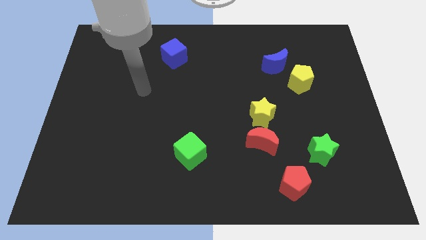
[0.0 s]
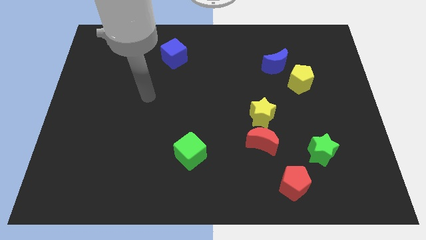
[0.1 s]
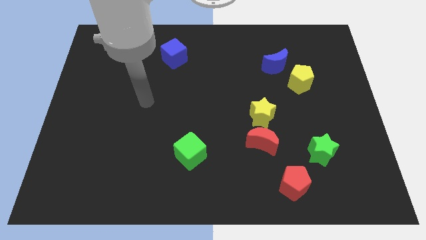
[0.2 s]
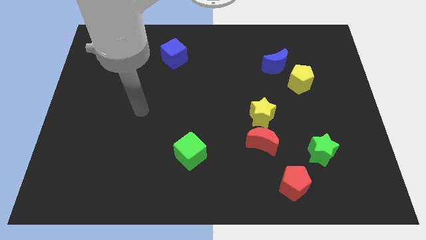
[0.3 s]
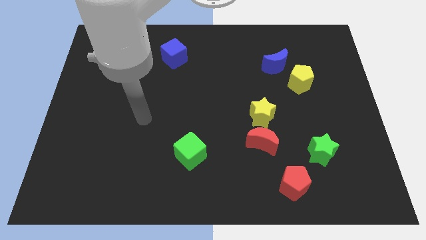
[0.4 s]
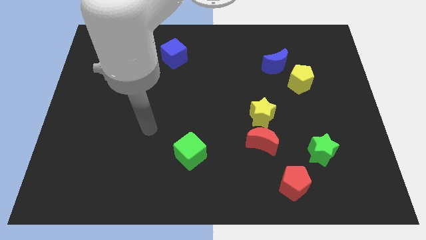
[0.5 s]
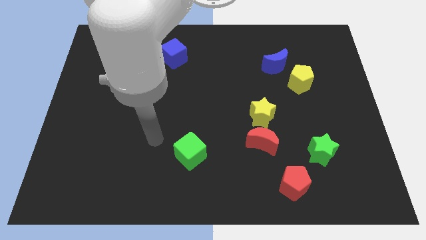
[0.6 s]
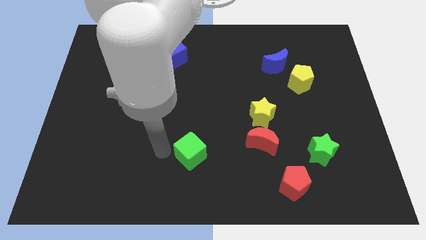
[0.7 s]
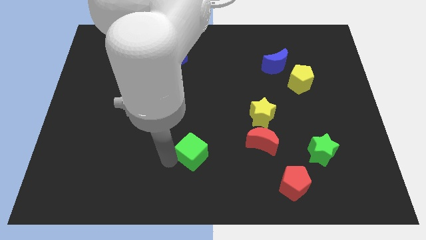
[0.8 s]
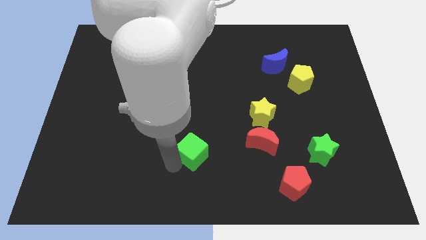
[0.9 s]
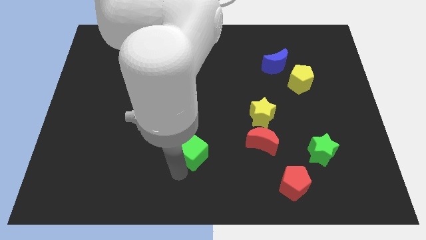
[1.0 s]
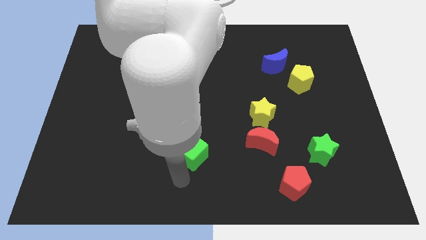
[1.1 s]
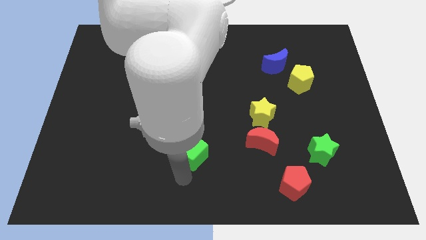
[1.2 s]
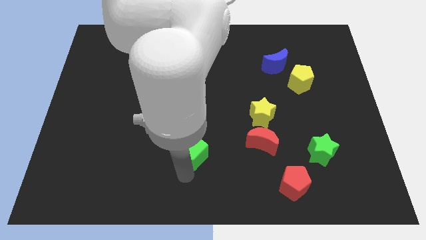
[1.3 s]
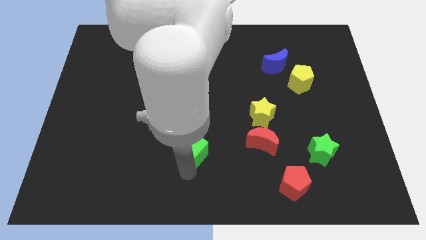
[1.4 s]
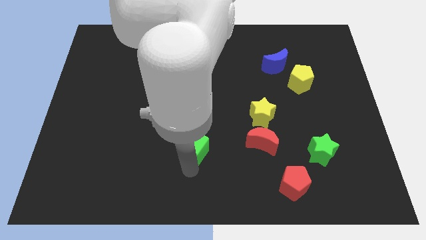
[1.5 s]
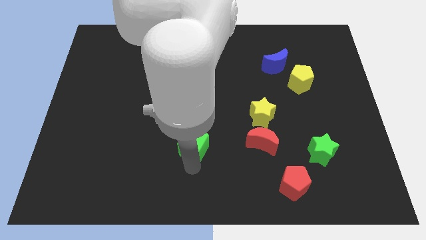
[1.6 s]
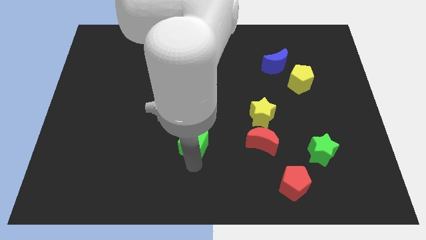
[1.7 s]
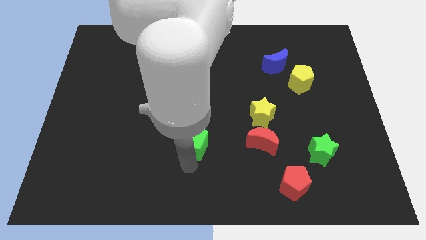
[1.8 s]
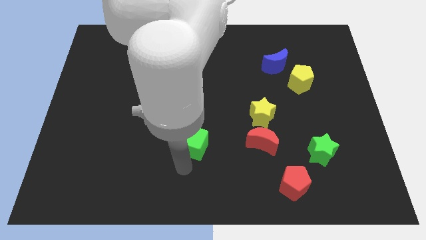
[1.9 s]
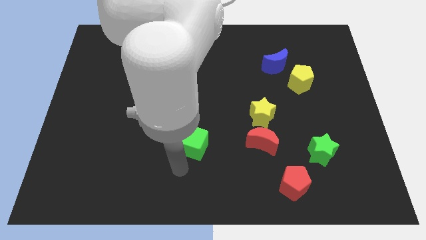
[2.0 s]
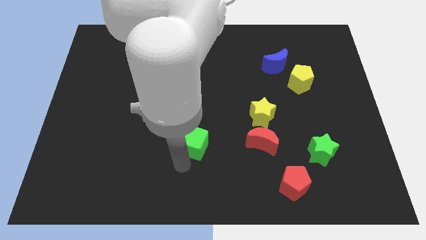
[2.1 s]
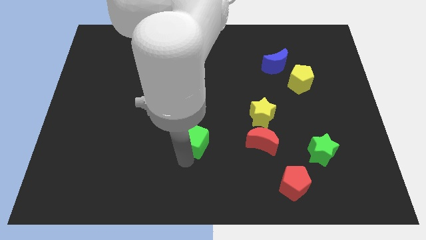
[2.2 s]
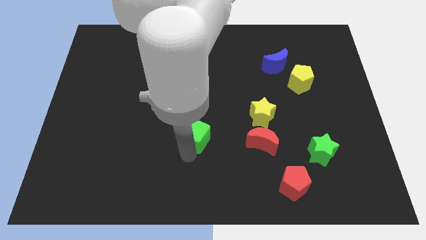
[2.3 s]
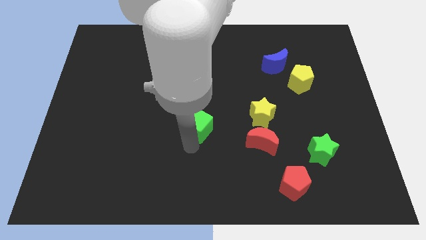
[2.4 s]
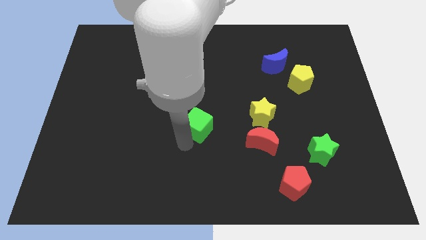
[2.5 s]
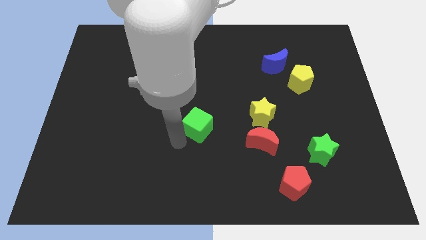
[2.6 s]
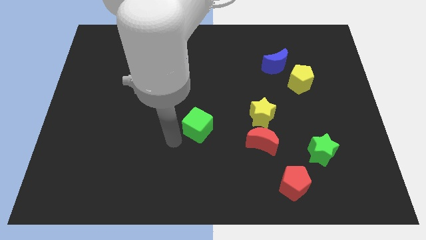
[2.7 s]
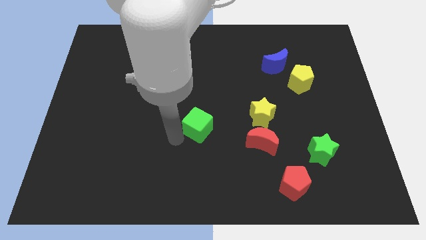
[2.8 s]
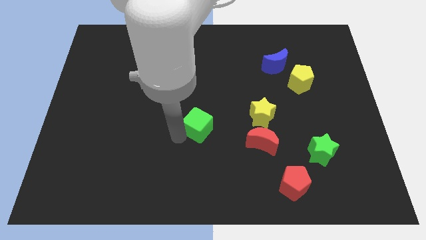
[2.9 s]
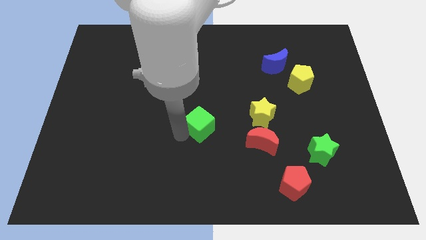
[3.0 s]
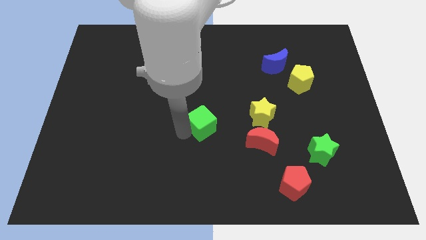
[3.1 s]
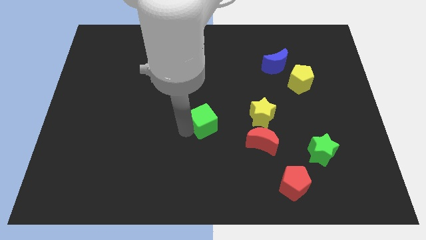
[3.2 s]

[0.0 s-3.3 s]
slide the green cube slightly upwards and right diagonally

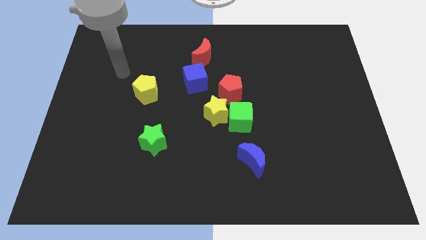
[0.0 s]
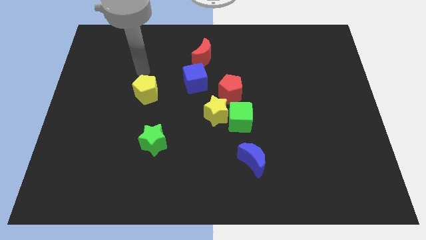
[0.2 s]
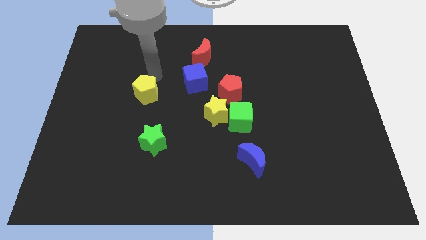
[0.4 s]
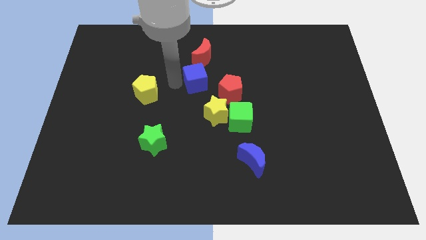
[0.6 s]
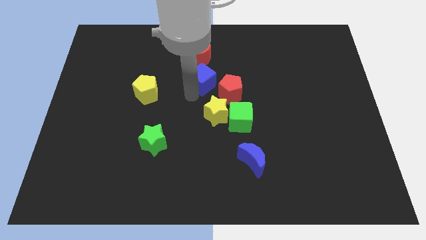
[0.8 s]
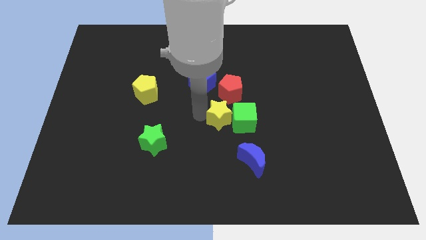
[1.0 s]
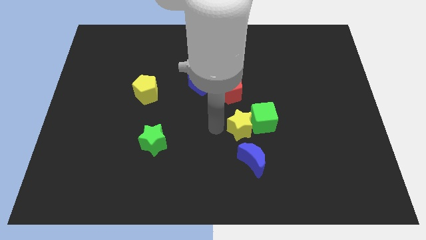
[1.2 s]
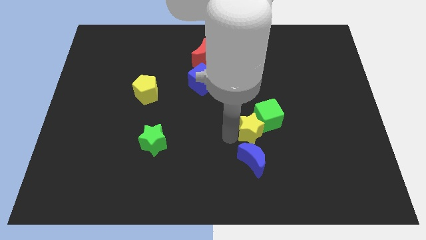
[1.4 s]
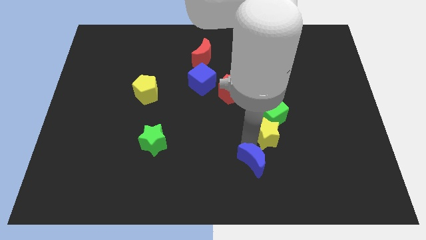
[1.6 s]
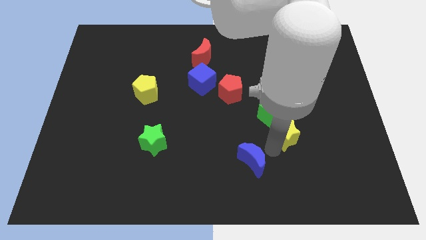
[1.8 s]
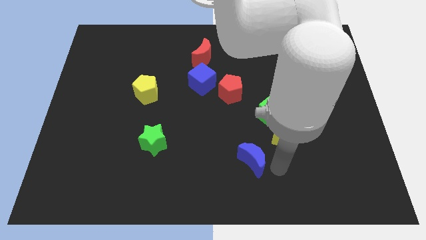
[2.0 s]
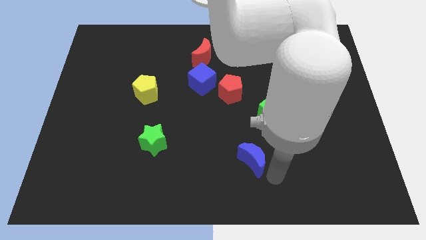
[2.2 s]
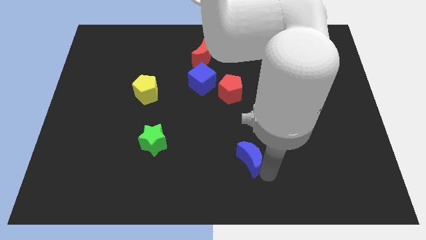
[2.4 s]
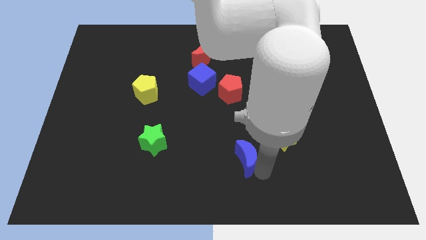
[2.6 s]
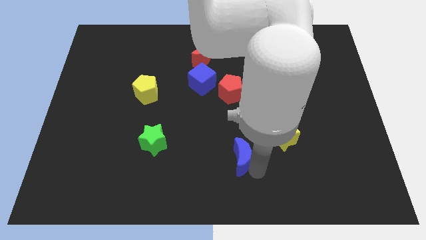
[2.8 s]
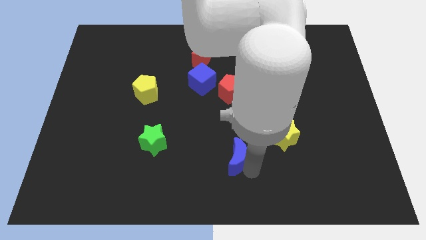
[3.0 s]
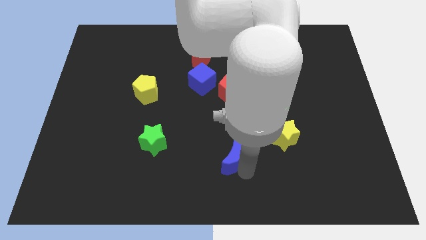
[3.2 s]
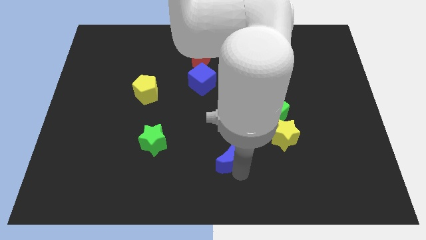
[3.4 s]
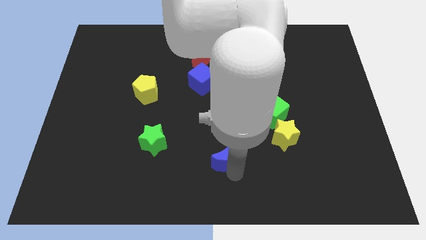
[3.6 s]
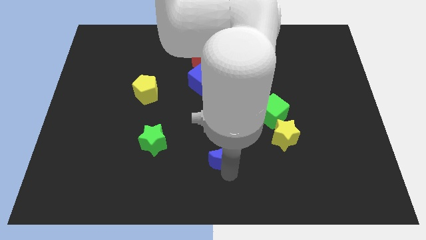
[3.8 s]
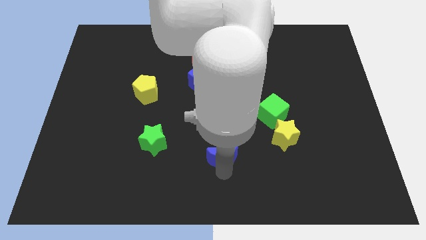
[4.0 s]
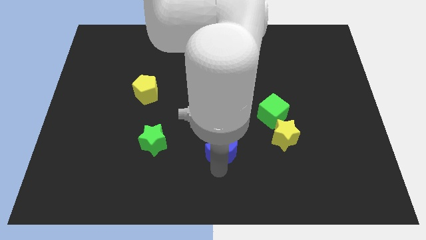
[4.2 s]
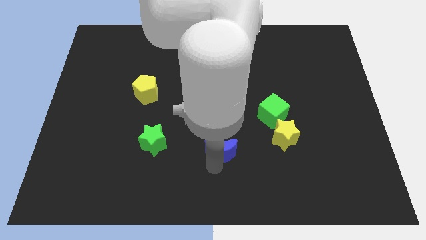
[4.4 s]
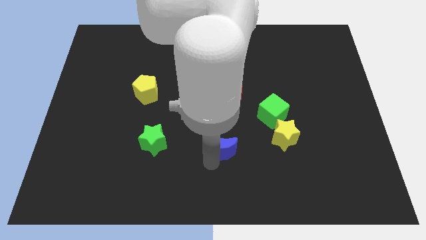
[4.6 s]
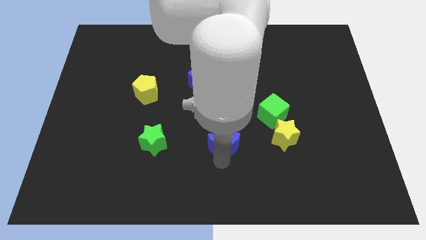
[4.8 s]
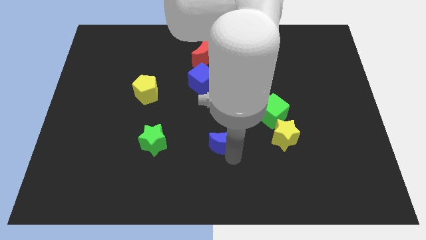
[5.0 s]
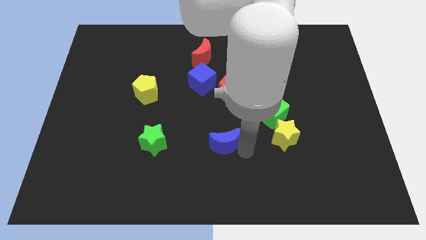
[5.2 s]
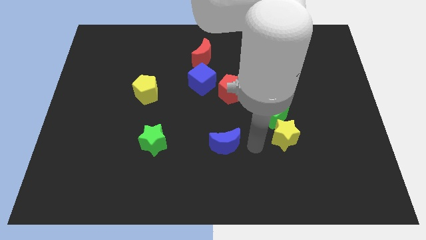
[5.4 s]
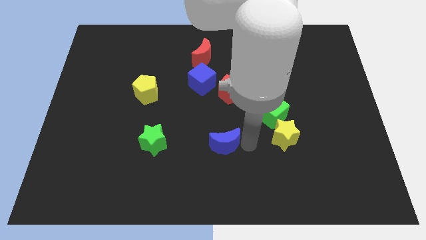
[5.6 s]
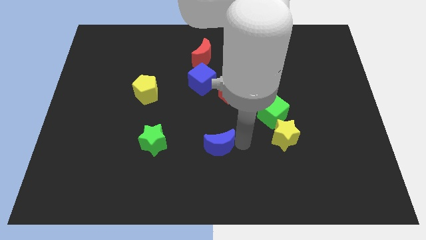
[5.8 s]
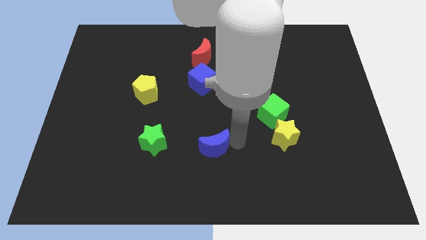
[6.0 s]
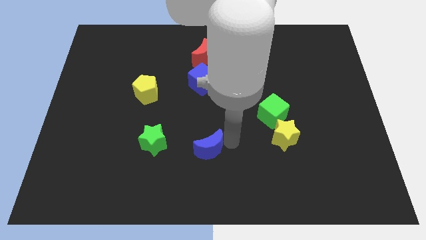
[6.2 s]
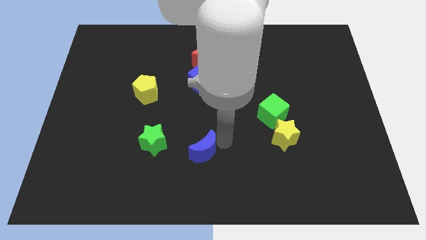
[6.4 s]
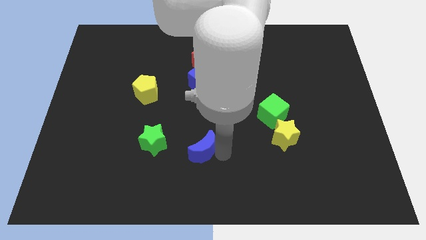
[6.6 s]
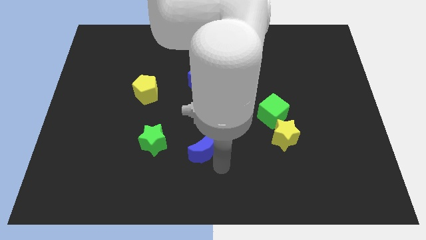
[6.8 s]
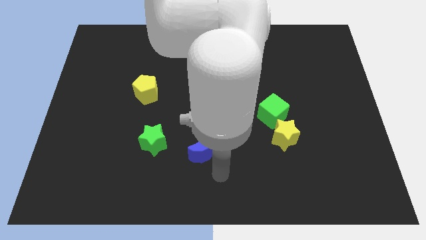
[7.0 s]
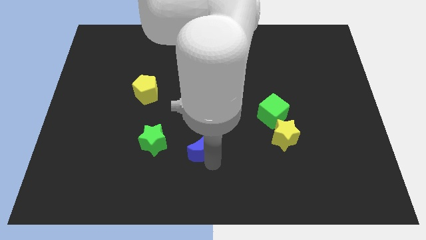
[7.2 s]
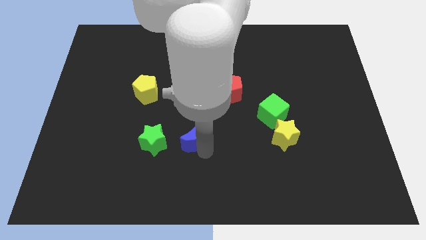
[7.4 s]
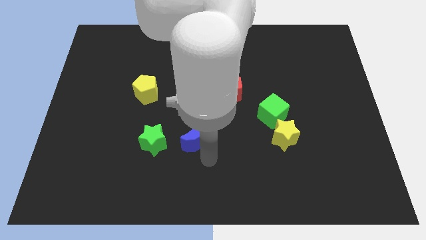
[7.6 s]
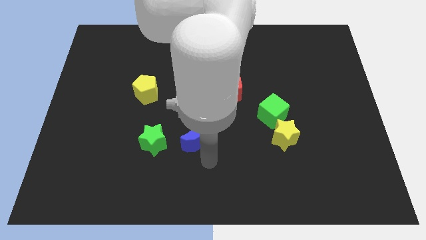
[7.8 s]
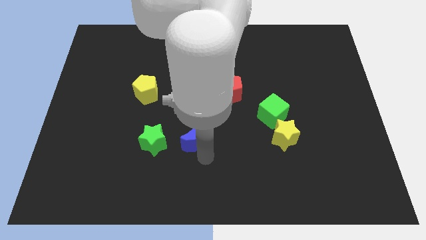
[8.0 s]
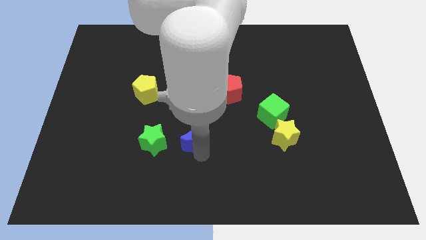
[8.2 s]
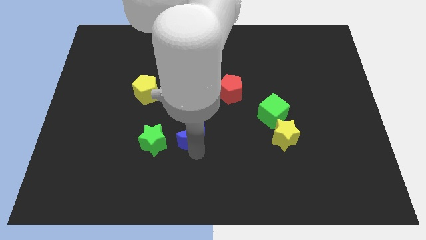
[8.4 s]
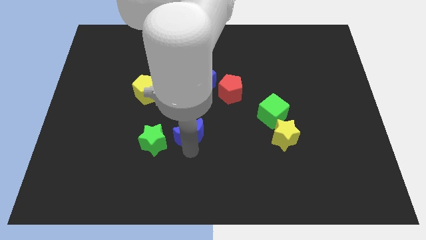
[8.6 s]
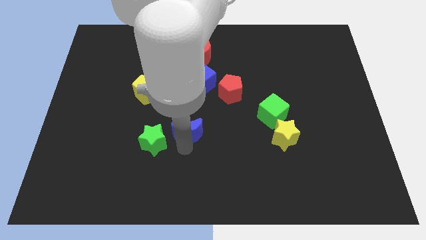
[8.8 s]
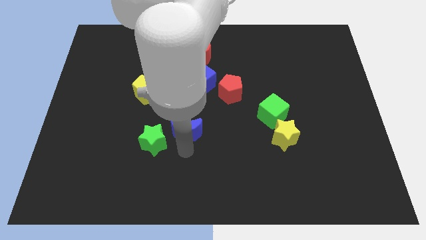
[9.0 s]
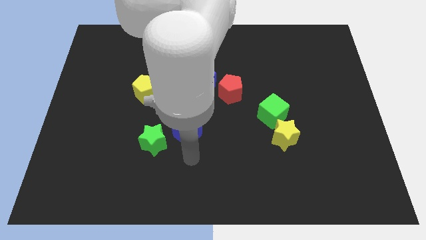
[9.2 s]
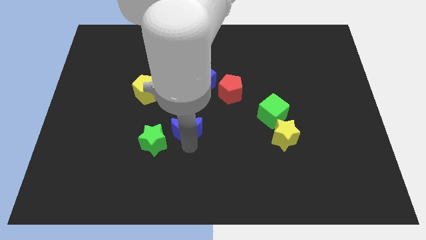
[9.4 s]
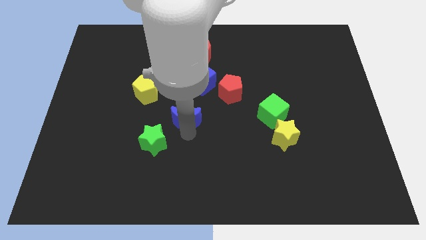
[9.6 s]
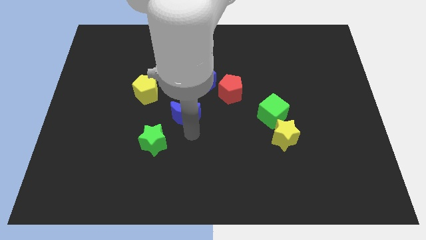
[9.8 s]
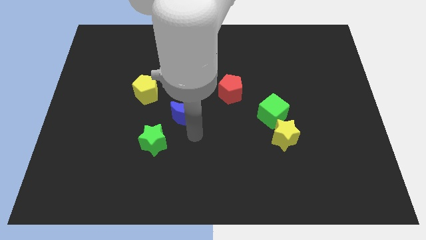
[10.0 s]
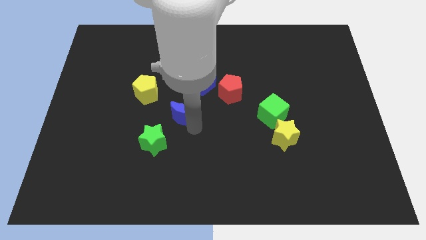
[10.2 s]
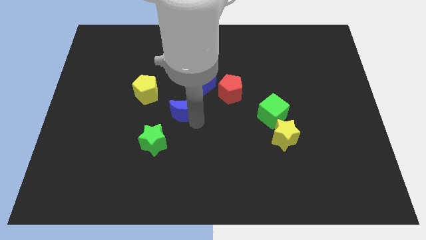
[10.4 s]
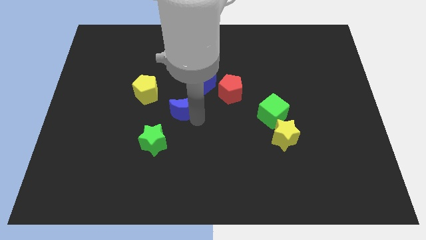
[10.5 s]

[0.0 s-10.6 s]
move the blue moon diagonally up and left
